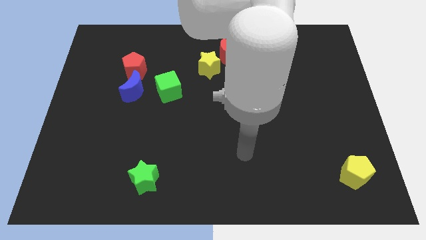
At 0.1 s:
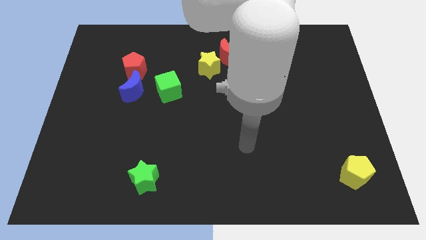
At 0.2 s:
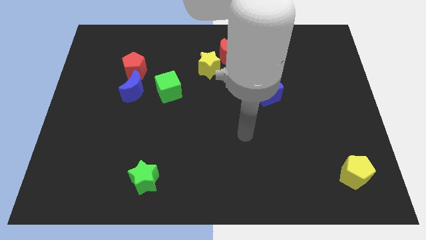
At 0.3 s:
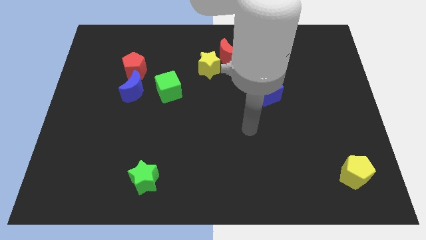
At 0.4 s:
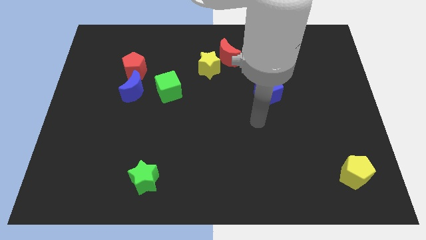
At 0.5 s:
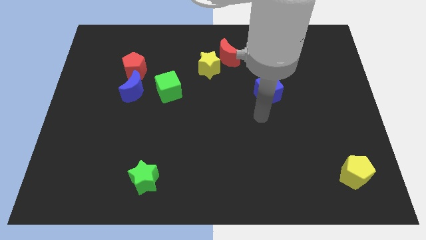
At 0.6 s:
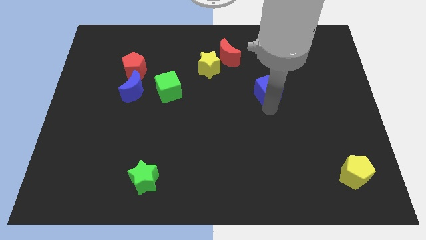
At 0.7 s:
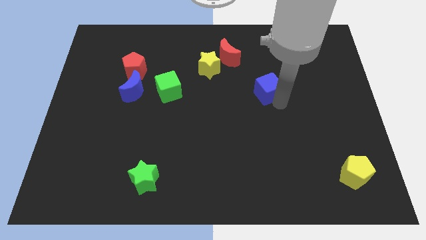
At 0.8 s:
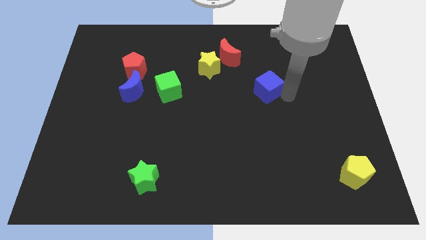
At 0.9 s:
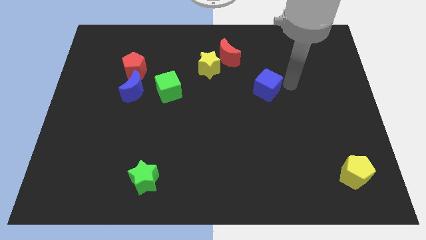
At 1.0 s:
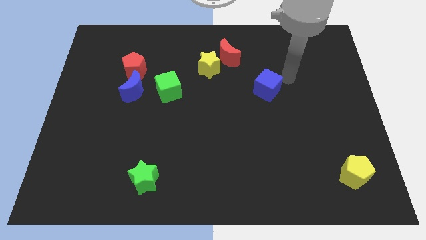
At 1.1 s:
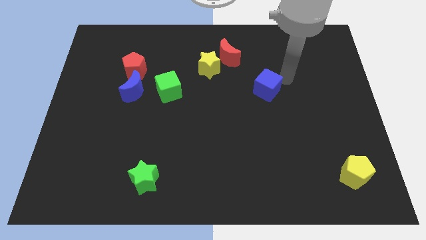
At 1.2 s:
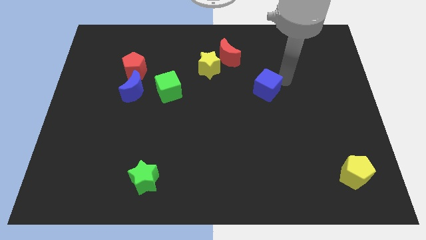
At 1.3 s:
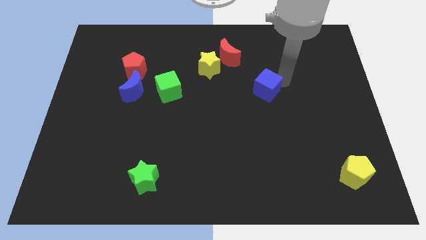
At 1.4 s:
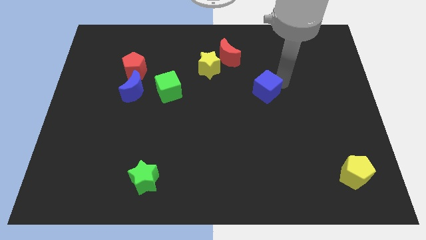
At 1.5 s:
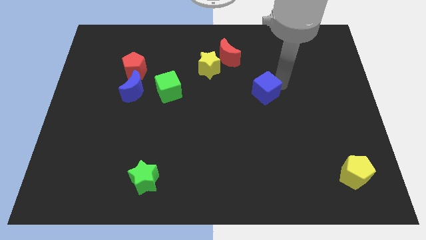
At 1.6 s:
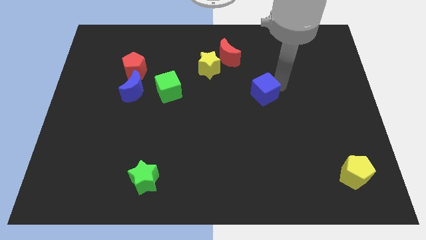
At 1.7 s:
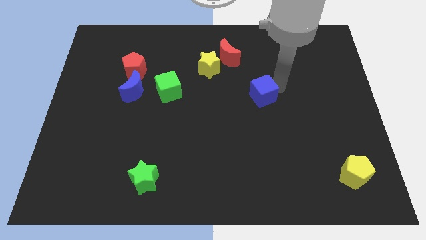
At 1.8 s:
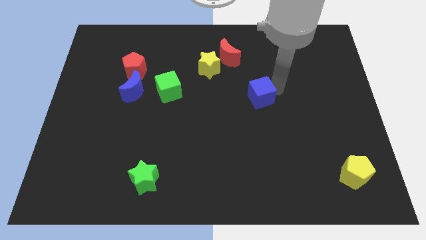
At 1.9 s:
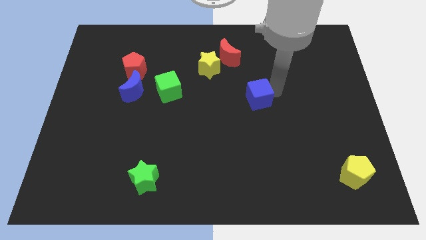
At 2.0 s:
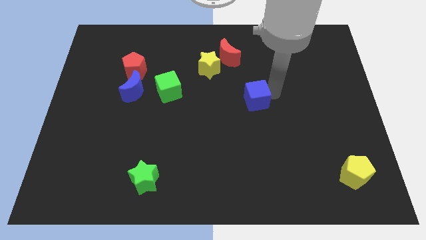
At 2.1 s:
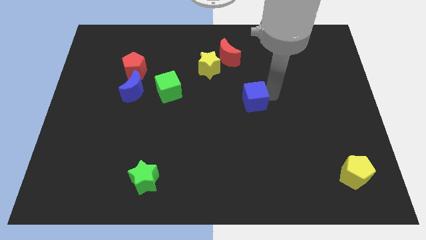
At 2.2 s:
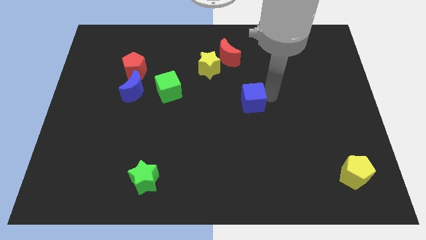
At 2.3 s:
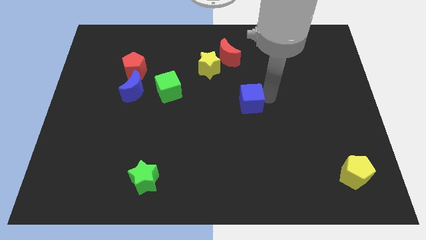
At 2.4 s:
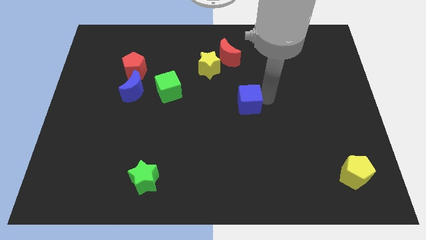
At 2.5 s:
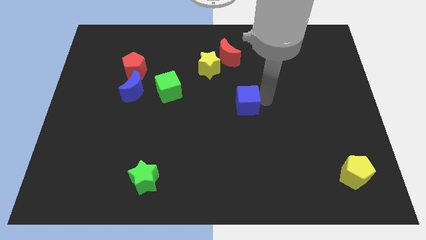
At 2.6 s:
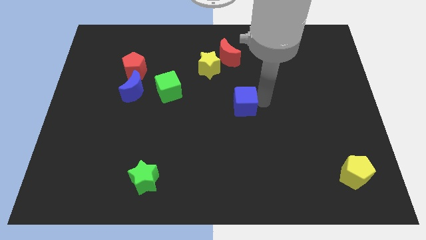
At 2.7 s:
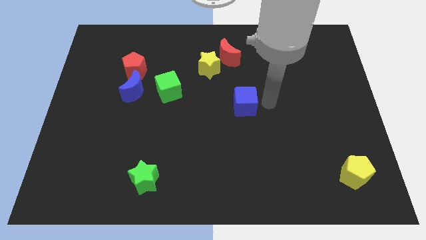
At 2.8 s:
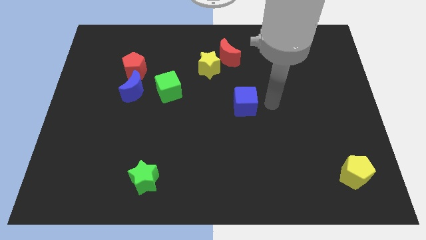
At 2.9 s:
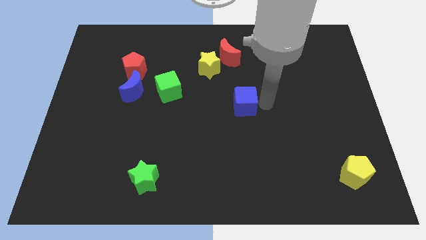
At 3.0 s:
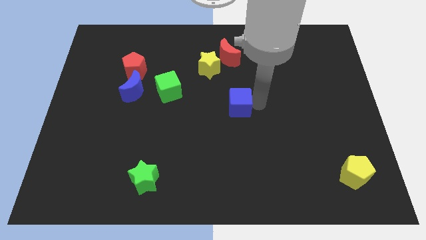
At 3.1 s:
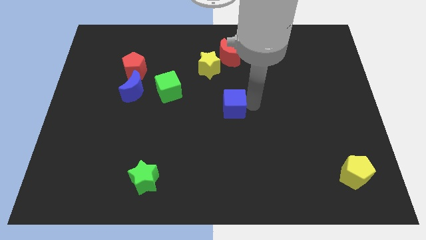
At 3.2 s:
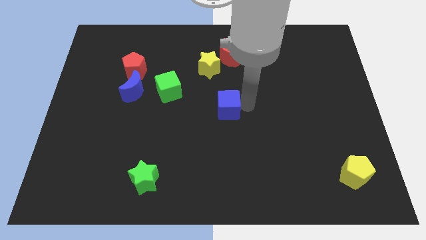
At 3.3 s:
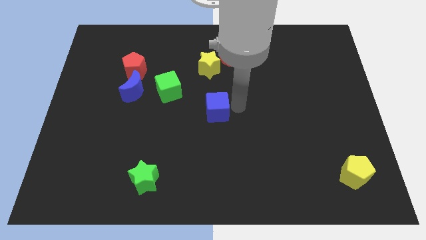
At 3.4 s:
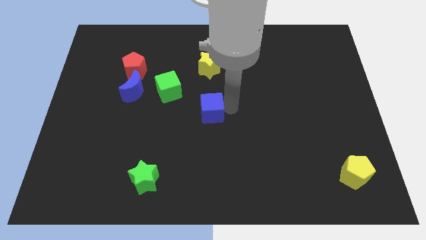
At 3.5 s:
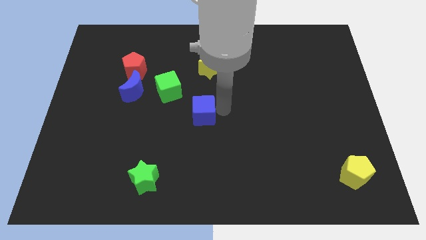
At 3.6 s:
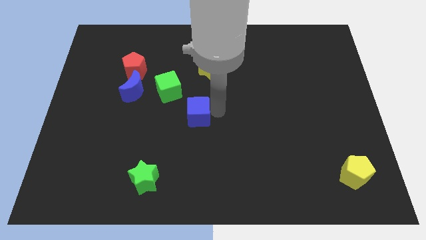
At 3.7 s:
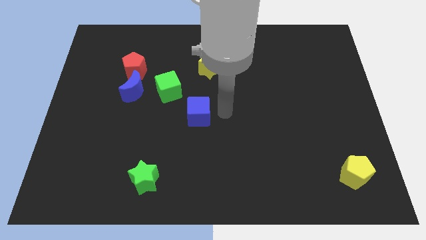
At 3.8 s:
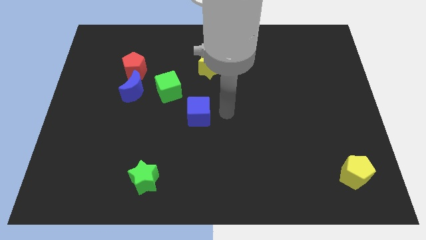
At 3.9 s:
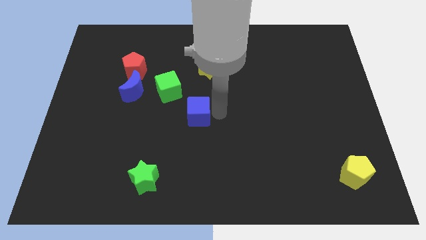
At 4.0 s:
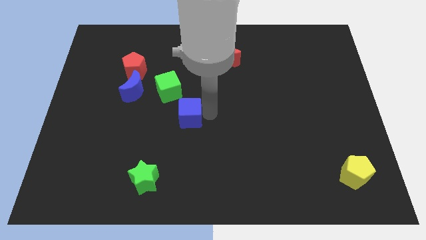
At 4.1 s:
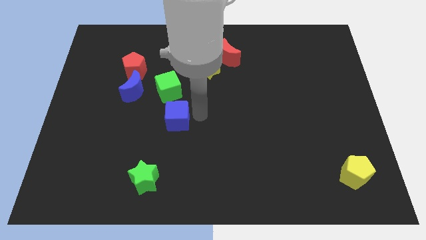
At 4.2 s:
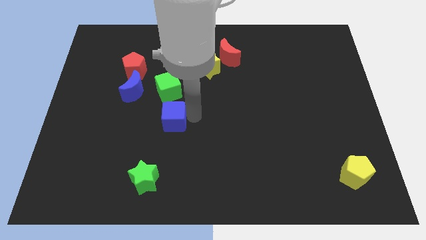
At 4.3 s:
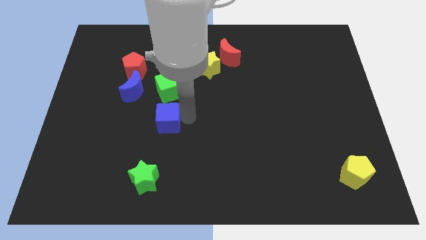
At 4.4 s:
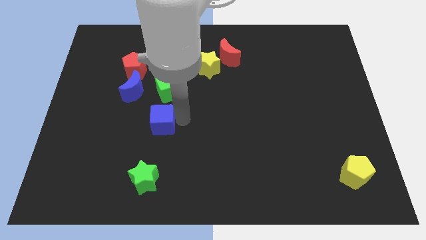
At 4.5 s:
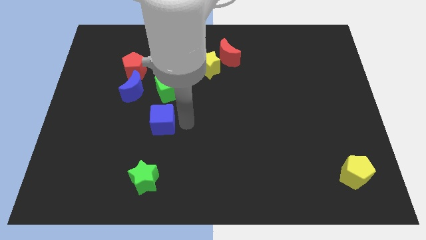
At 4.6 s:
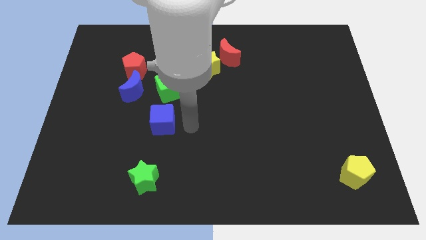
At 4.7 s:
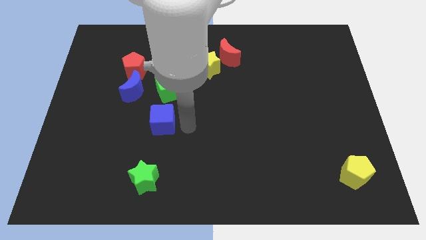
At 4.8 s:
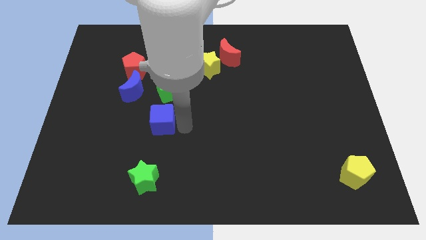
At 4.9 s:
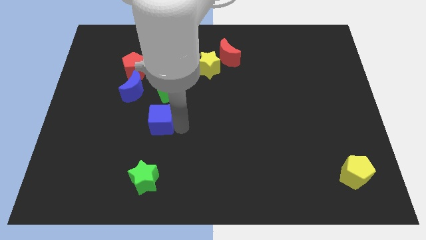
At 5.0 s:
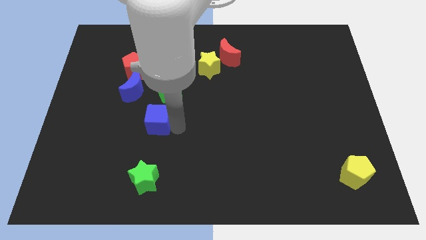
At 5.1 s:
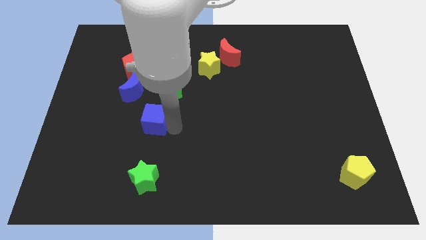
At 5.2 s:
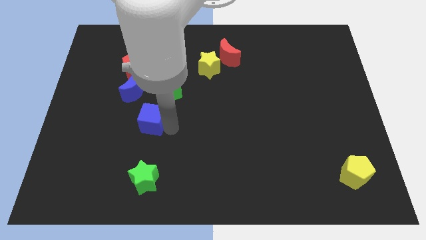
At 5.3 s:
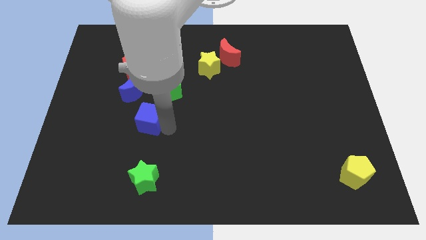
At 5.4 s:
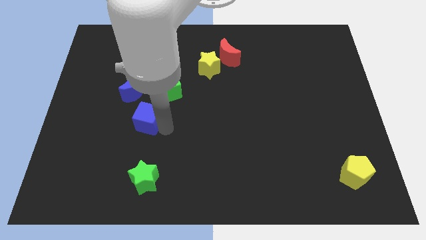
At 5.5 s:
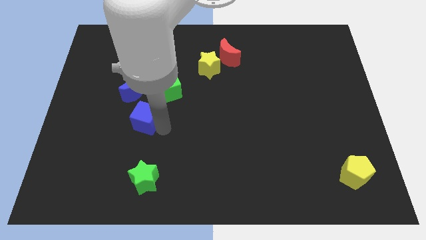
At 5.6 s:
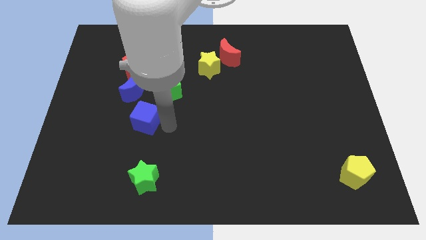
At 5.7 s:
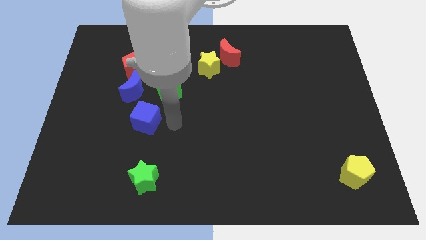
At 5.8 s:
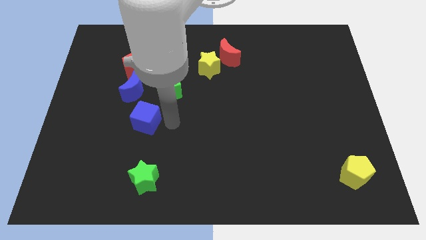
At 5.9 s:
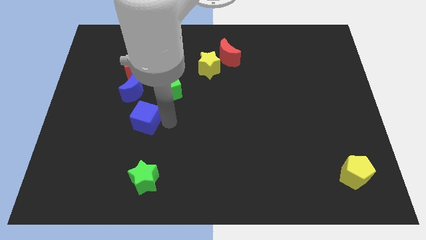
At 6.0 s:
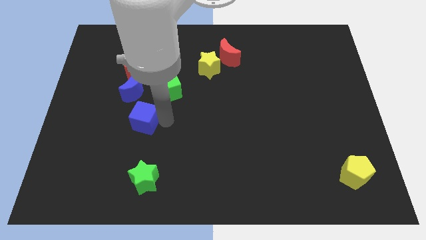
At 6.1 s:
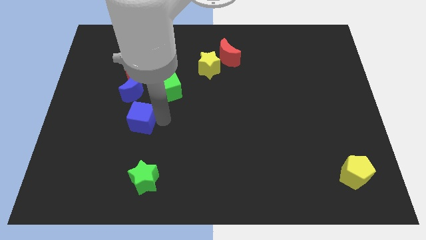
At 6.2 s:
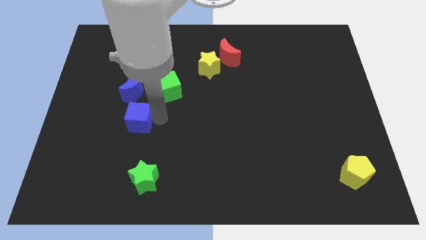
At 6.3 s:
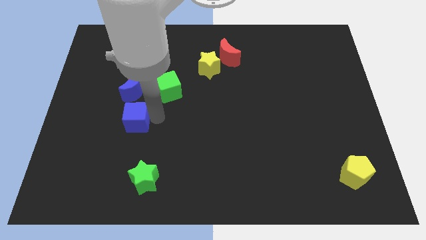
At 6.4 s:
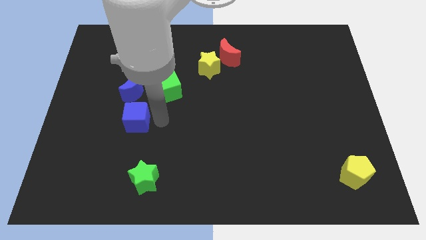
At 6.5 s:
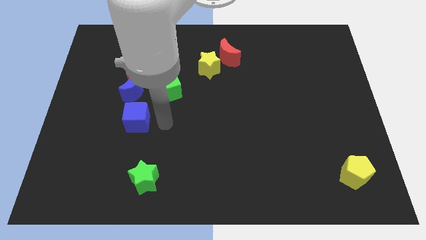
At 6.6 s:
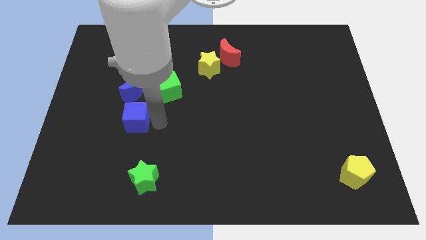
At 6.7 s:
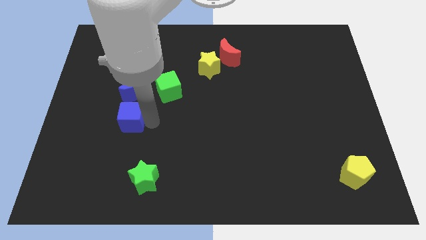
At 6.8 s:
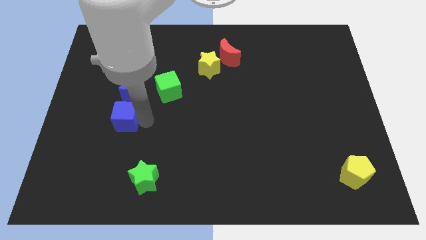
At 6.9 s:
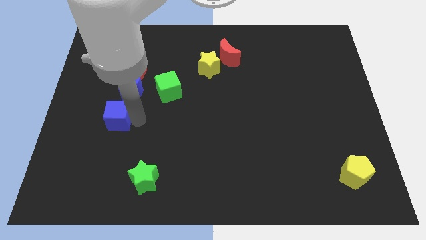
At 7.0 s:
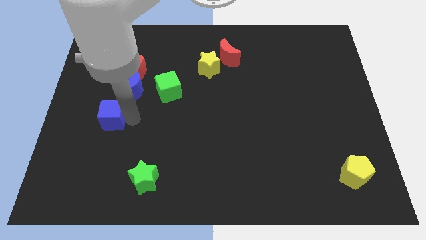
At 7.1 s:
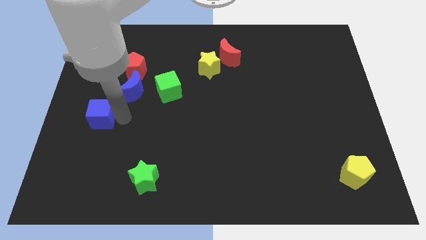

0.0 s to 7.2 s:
slide the blue cube to the center left
